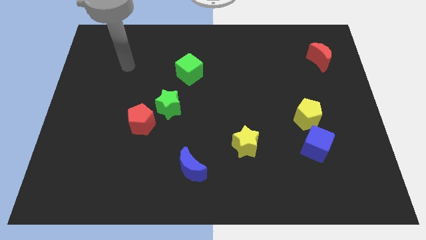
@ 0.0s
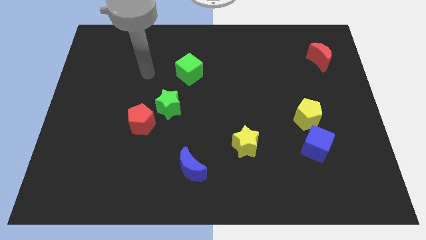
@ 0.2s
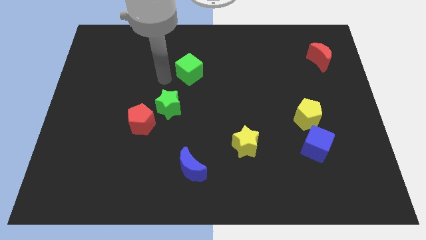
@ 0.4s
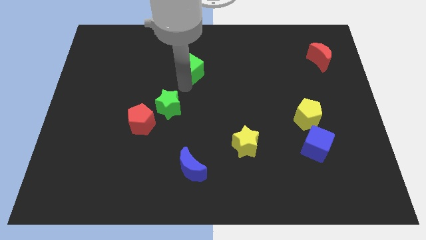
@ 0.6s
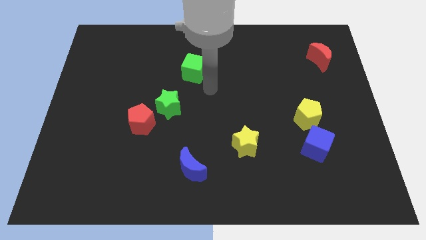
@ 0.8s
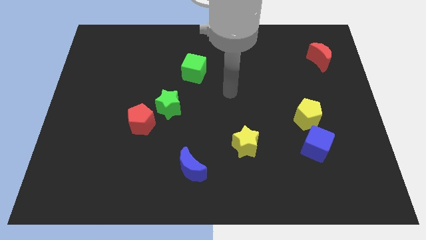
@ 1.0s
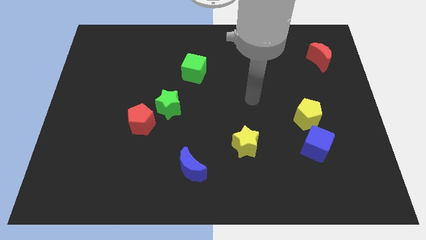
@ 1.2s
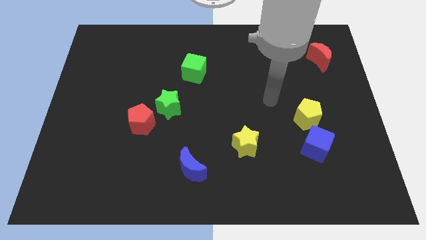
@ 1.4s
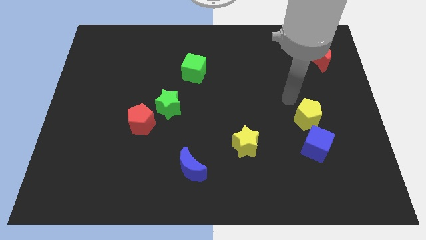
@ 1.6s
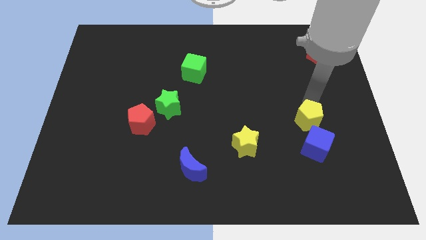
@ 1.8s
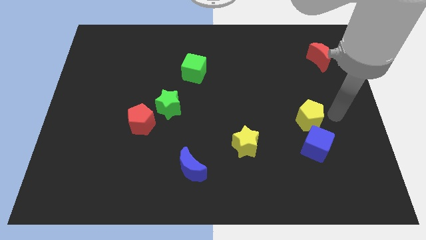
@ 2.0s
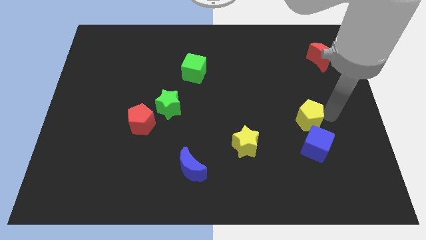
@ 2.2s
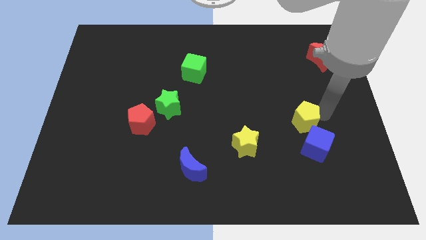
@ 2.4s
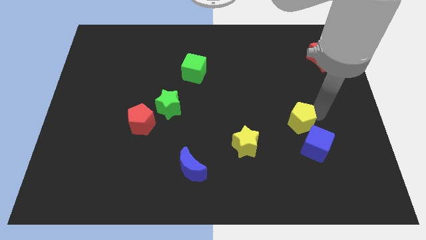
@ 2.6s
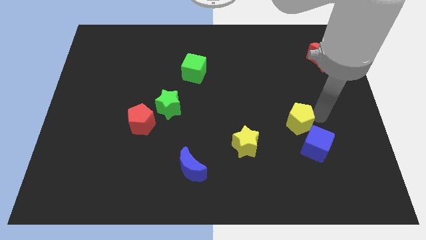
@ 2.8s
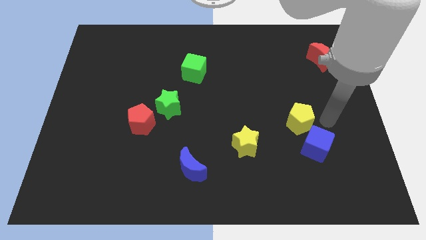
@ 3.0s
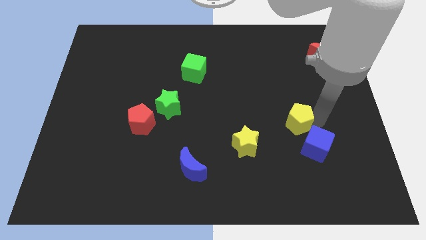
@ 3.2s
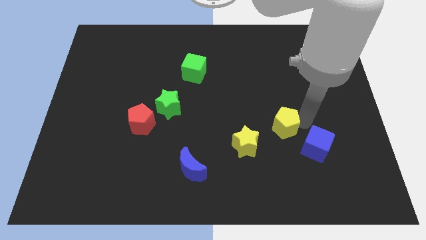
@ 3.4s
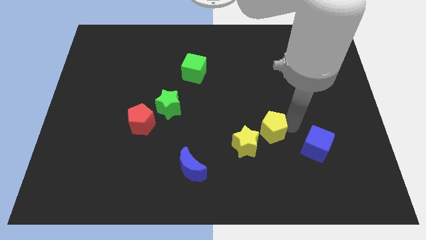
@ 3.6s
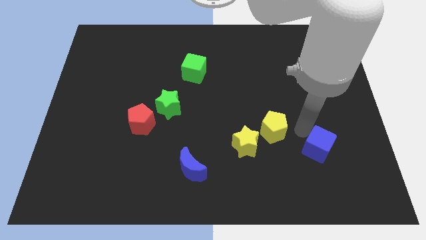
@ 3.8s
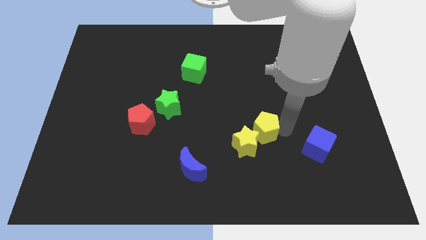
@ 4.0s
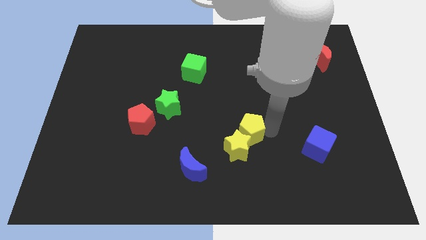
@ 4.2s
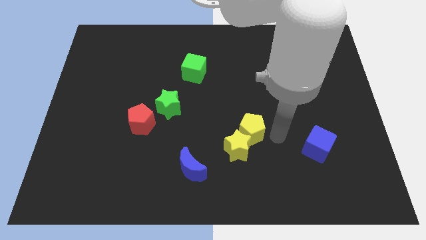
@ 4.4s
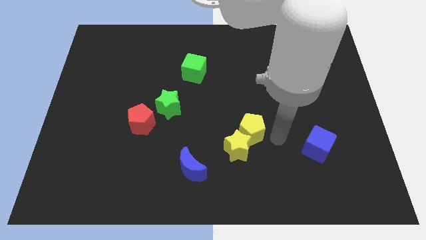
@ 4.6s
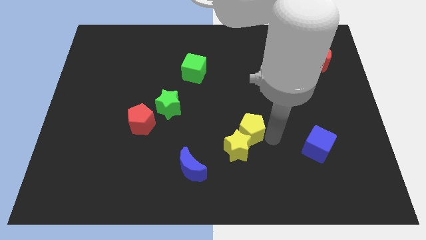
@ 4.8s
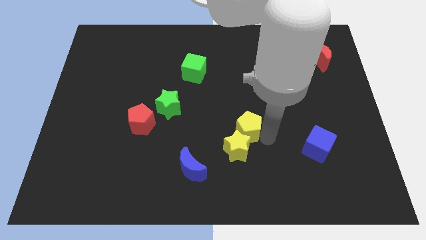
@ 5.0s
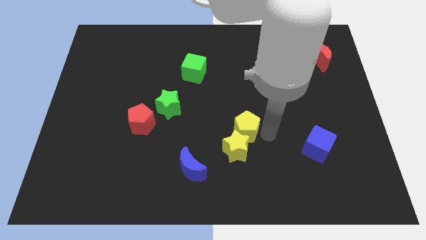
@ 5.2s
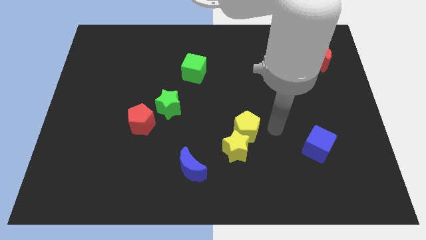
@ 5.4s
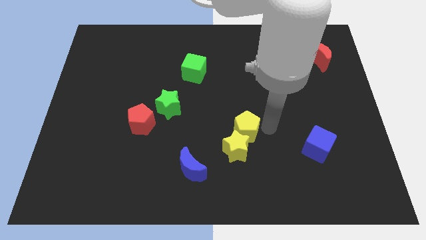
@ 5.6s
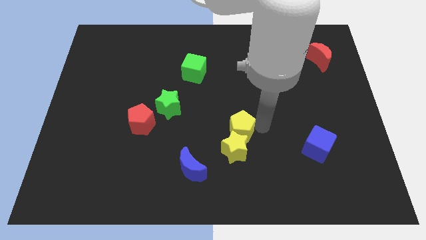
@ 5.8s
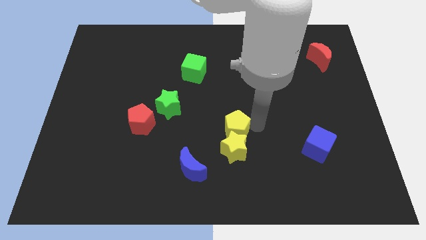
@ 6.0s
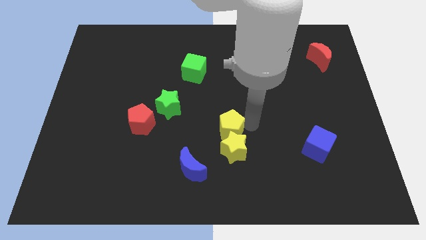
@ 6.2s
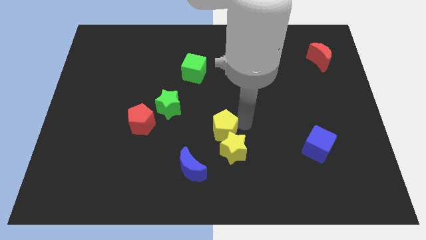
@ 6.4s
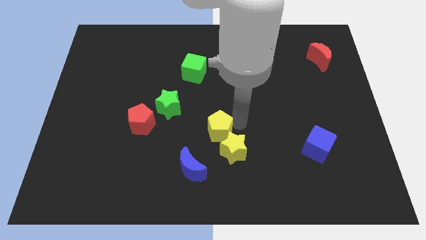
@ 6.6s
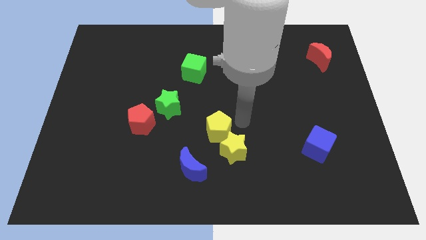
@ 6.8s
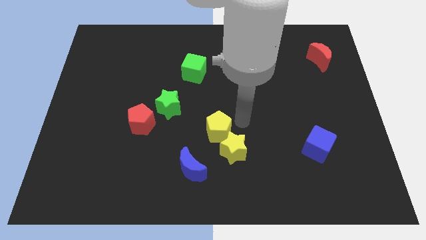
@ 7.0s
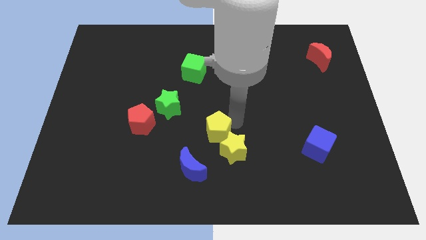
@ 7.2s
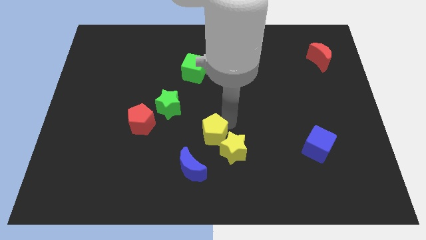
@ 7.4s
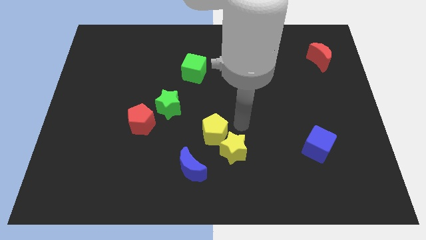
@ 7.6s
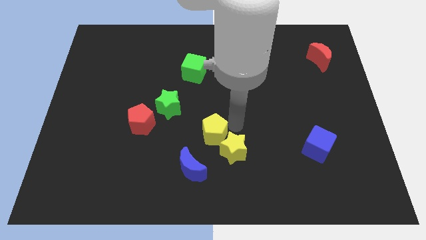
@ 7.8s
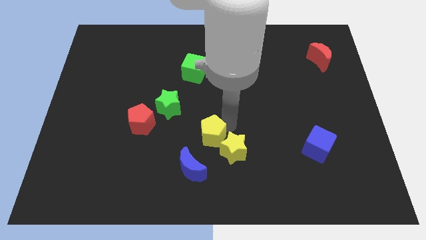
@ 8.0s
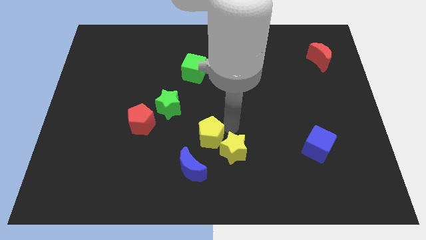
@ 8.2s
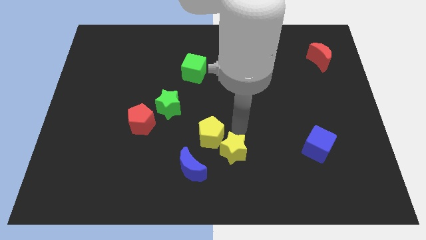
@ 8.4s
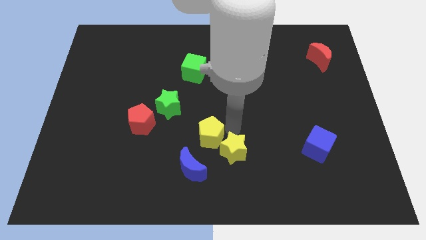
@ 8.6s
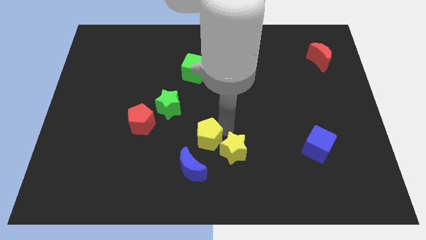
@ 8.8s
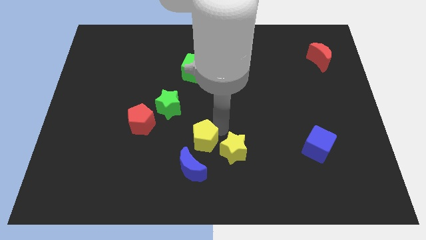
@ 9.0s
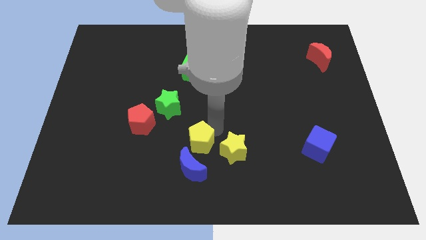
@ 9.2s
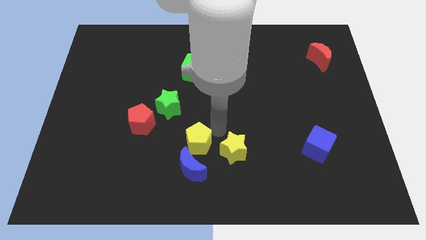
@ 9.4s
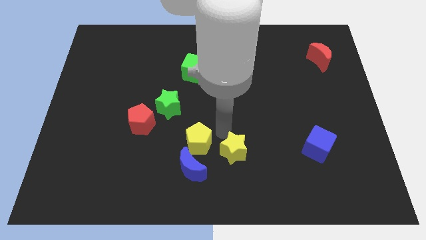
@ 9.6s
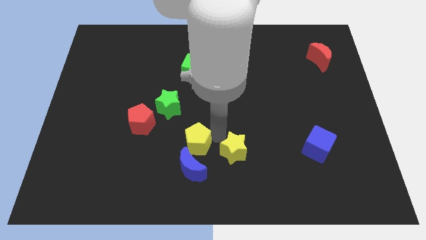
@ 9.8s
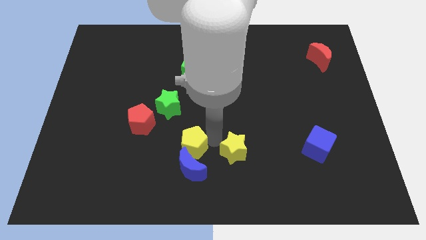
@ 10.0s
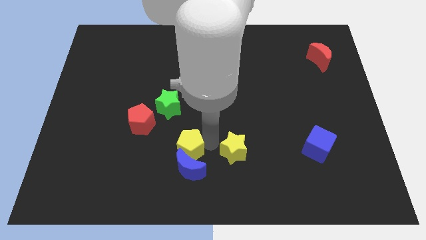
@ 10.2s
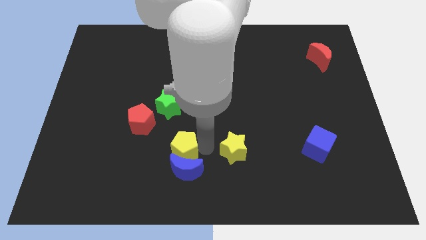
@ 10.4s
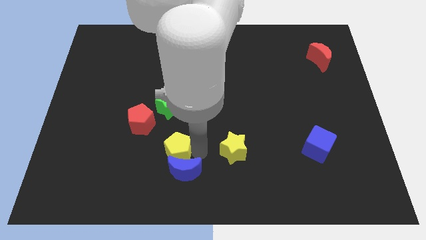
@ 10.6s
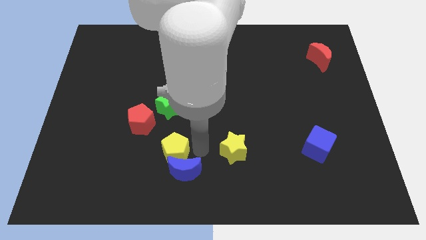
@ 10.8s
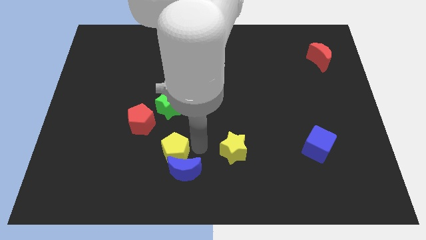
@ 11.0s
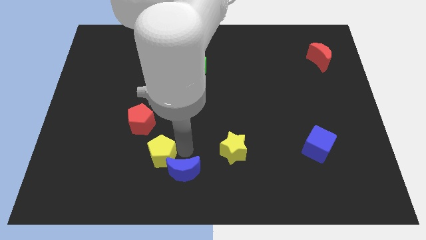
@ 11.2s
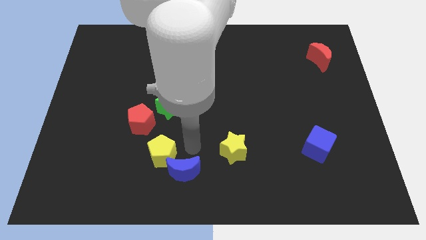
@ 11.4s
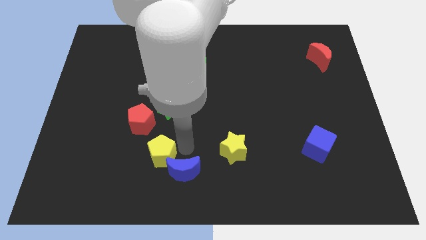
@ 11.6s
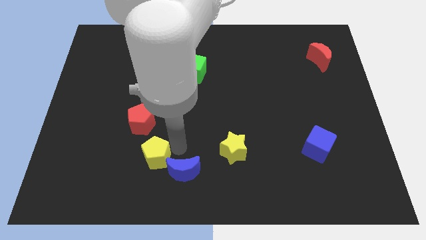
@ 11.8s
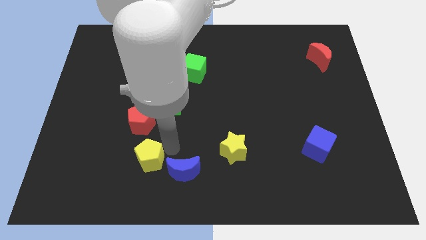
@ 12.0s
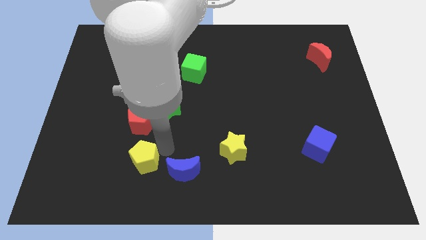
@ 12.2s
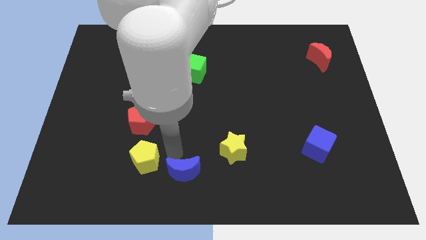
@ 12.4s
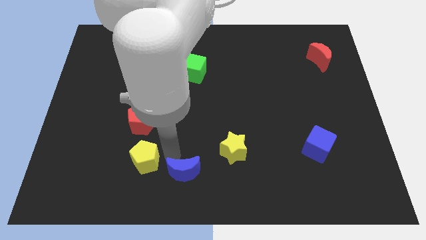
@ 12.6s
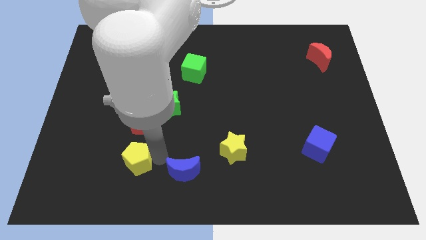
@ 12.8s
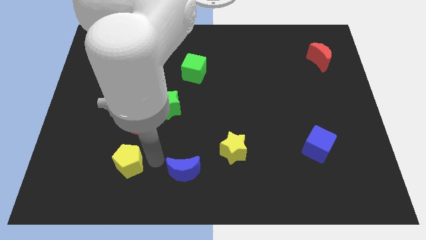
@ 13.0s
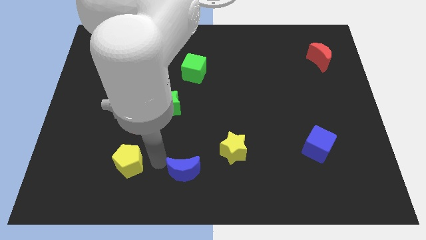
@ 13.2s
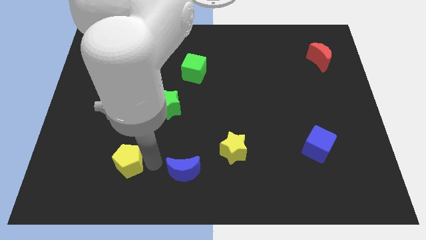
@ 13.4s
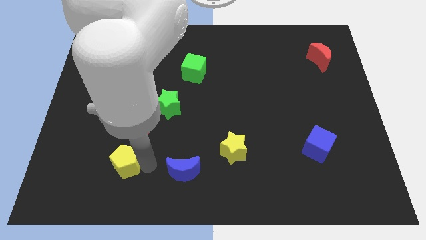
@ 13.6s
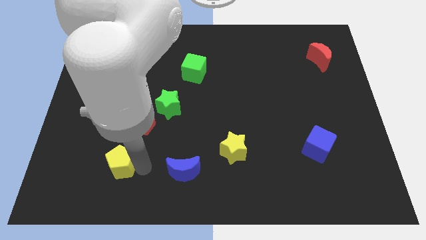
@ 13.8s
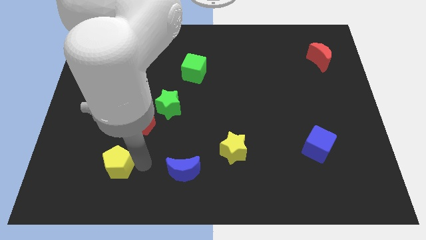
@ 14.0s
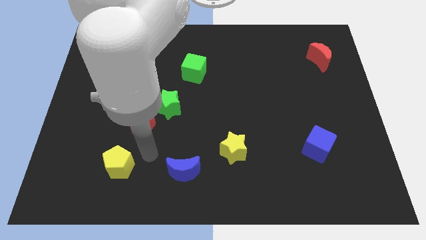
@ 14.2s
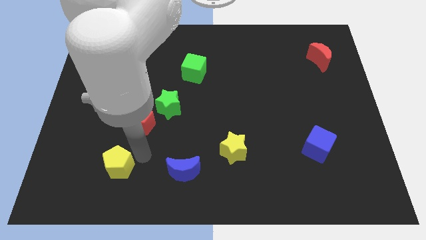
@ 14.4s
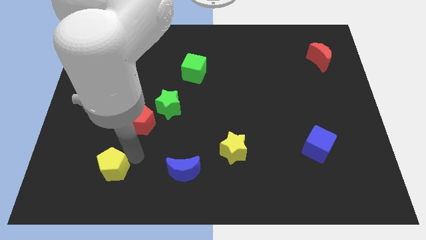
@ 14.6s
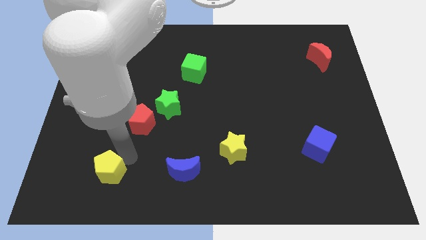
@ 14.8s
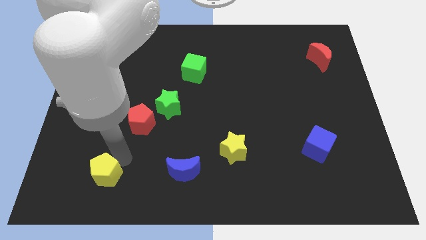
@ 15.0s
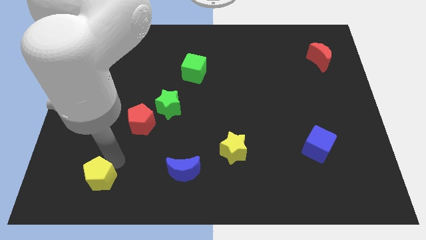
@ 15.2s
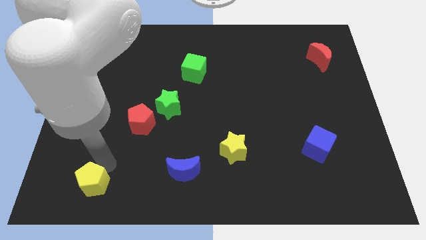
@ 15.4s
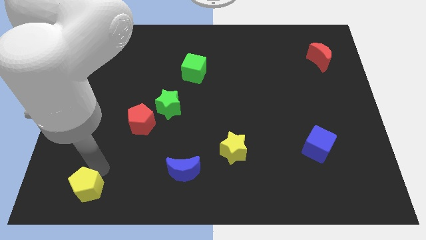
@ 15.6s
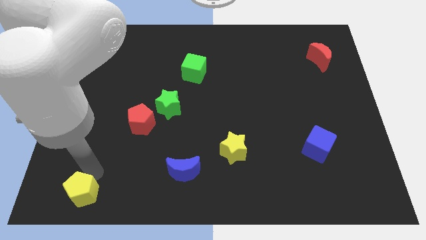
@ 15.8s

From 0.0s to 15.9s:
move the yellow pentagon to the bottom left

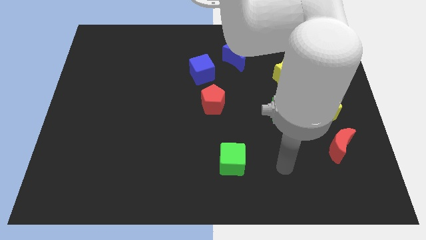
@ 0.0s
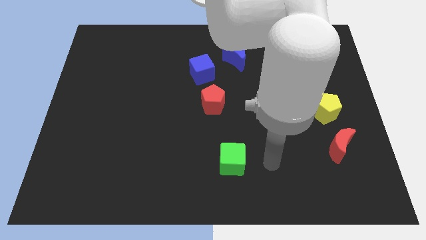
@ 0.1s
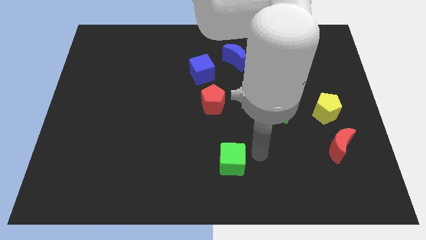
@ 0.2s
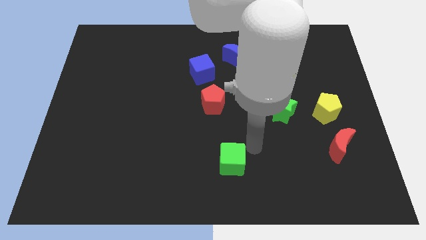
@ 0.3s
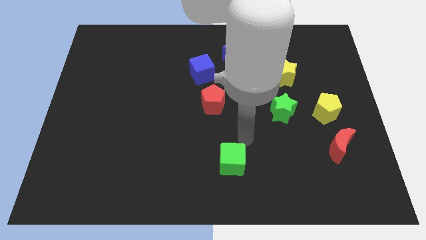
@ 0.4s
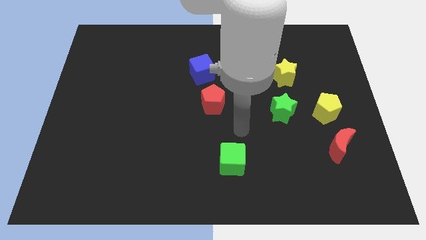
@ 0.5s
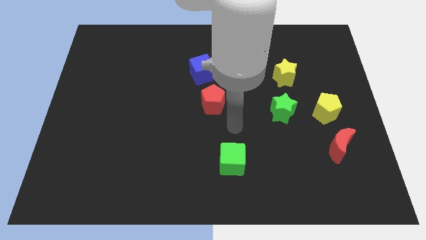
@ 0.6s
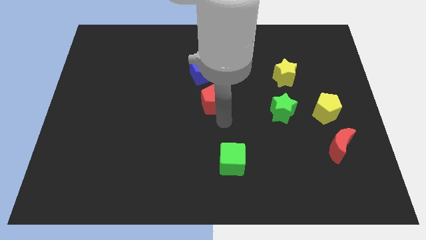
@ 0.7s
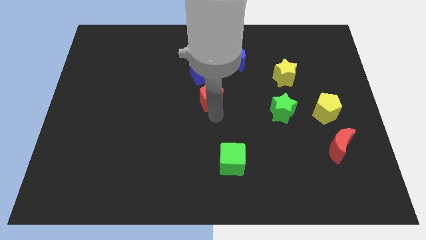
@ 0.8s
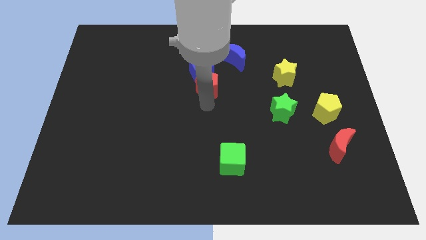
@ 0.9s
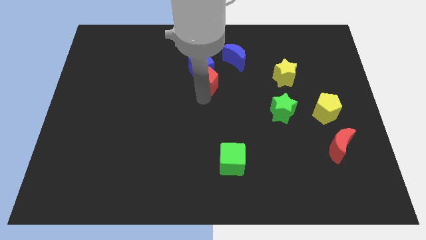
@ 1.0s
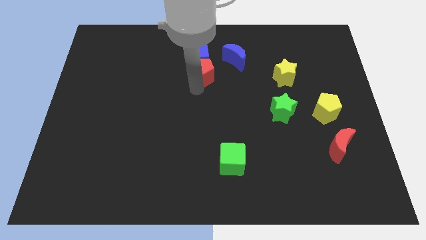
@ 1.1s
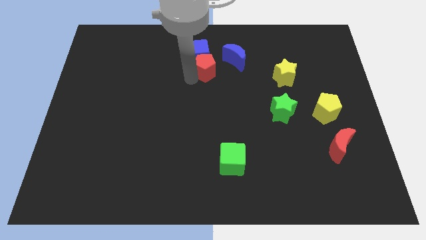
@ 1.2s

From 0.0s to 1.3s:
push the blue cube to the top side
